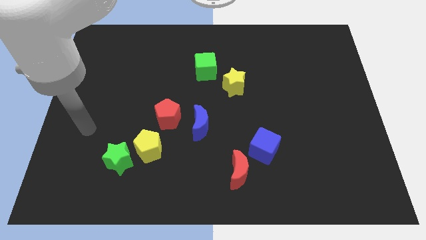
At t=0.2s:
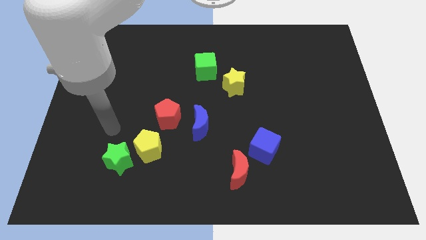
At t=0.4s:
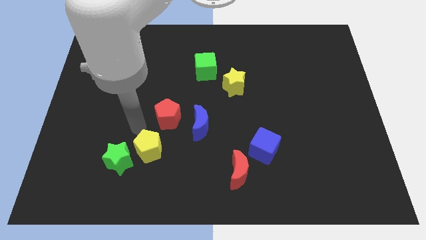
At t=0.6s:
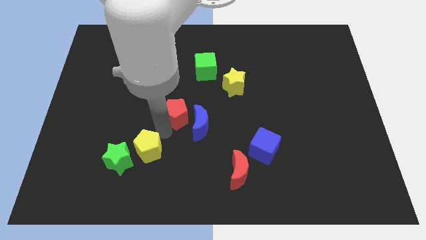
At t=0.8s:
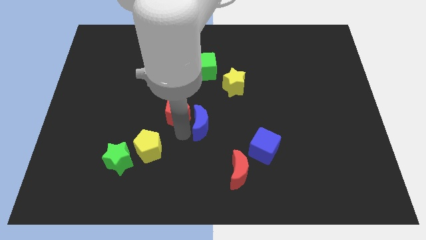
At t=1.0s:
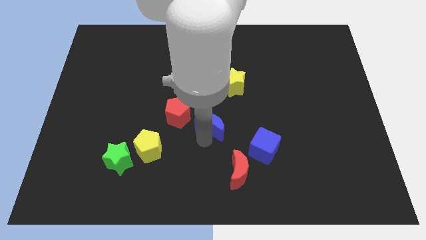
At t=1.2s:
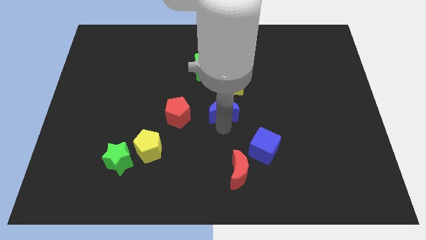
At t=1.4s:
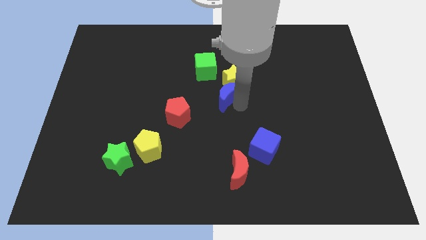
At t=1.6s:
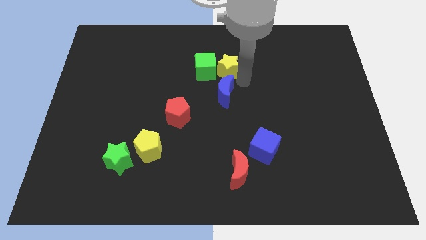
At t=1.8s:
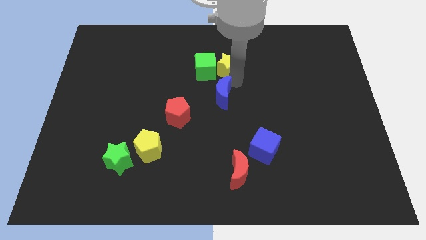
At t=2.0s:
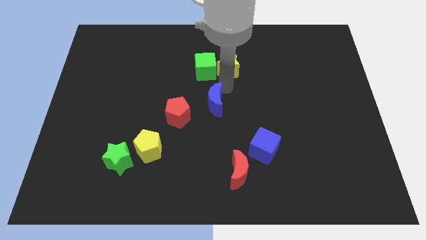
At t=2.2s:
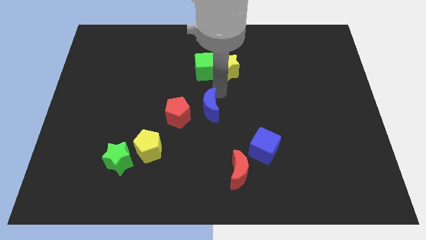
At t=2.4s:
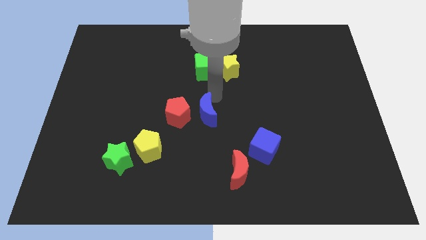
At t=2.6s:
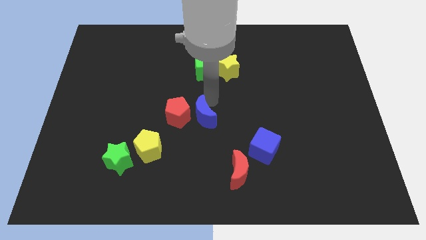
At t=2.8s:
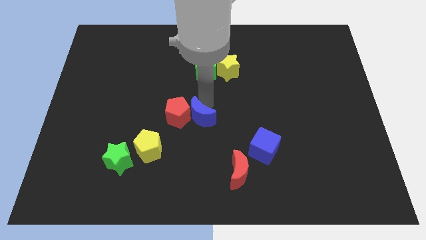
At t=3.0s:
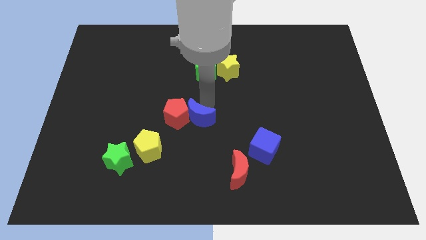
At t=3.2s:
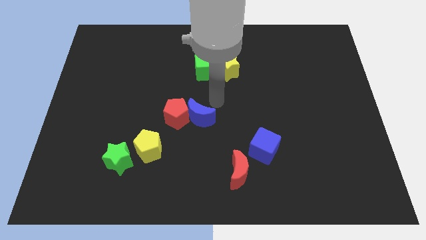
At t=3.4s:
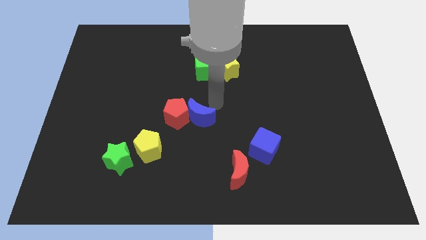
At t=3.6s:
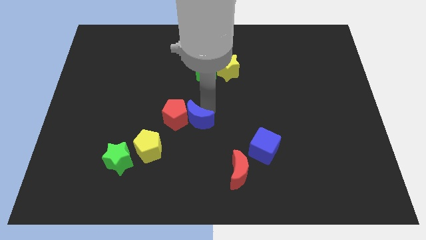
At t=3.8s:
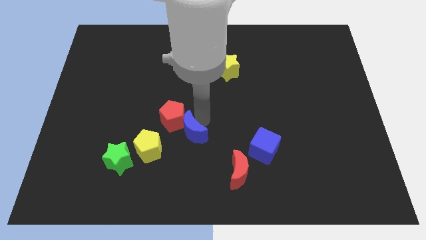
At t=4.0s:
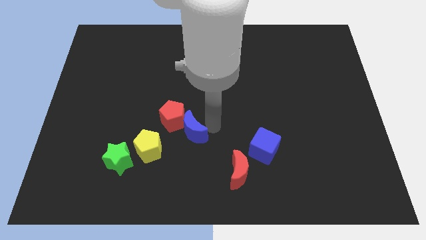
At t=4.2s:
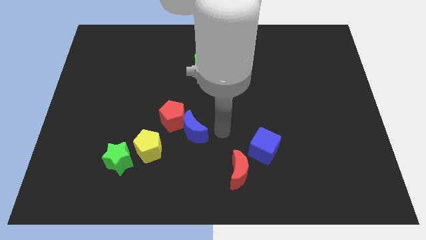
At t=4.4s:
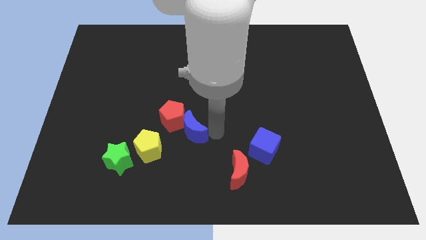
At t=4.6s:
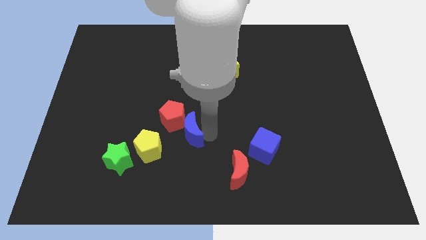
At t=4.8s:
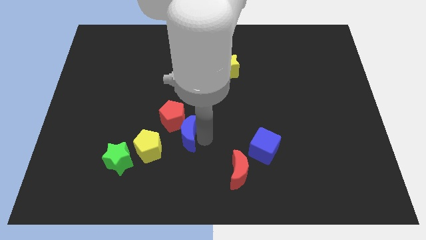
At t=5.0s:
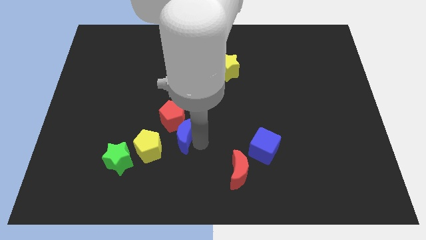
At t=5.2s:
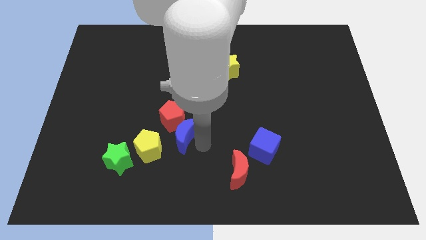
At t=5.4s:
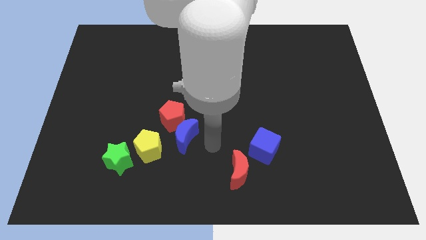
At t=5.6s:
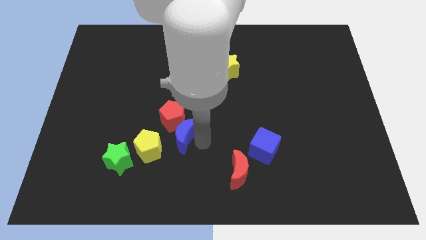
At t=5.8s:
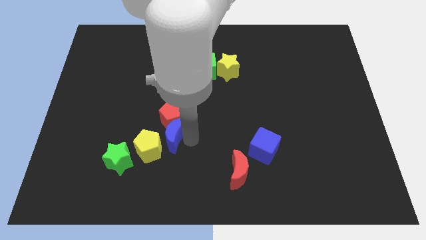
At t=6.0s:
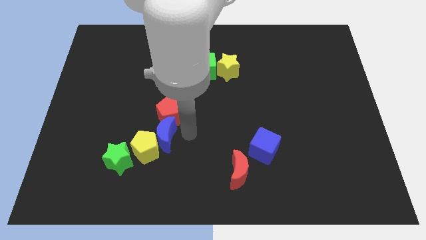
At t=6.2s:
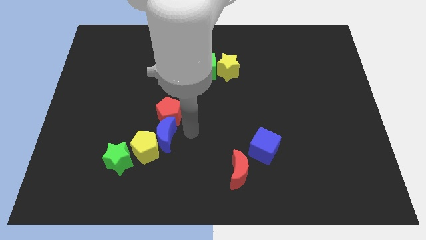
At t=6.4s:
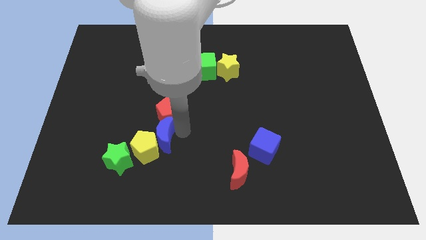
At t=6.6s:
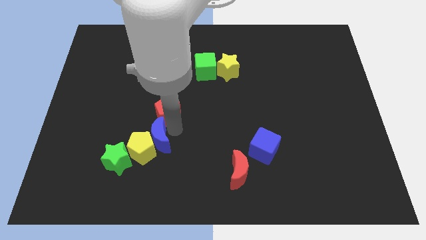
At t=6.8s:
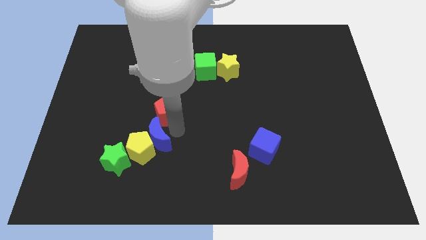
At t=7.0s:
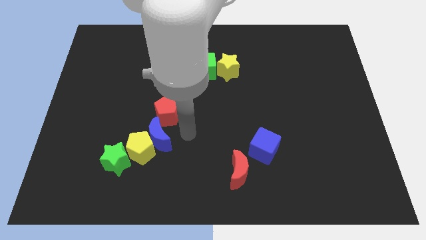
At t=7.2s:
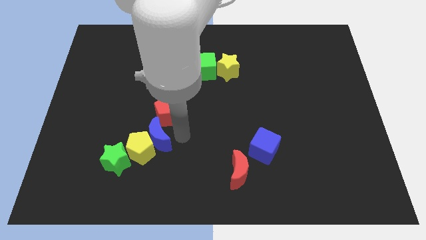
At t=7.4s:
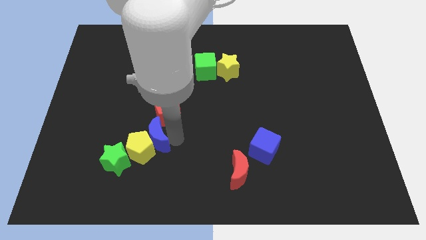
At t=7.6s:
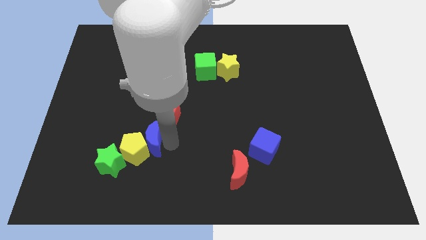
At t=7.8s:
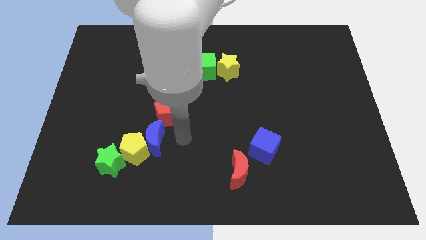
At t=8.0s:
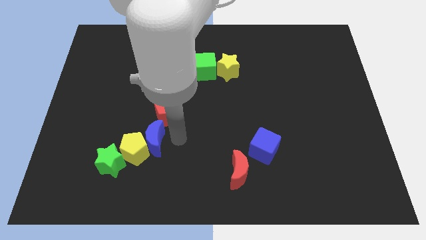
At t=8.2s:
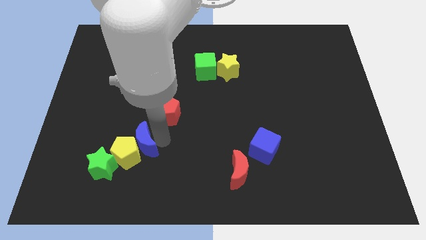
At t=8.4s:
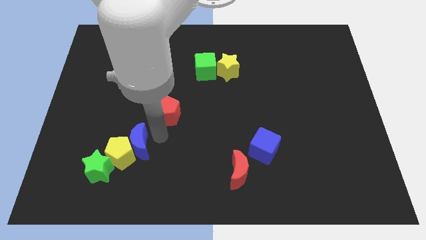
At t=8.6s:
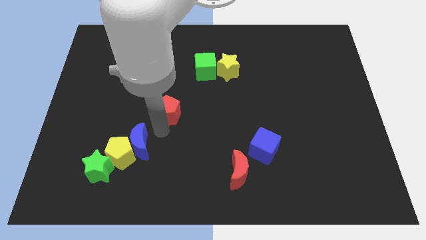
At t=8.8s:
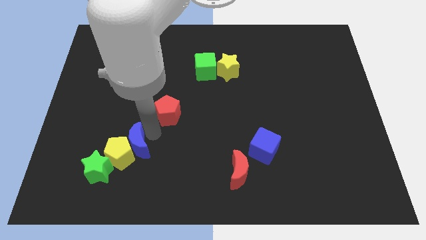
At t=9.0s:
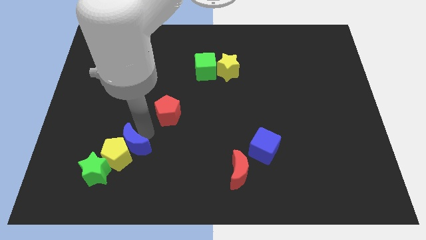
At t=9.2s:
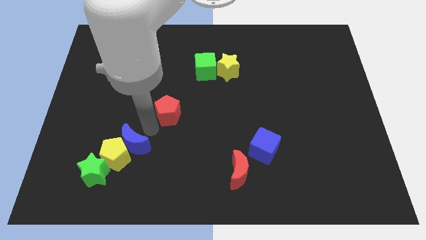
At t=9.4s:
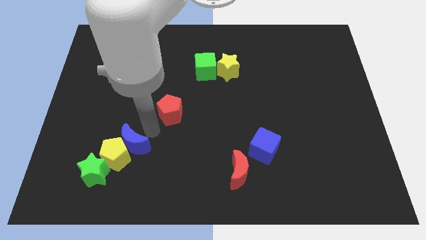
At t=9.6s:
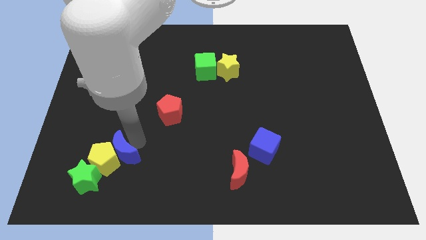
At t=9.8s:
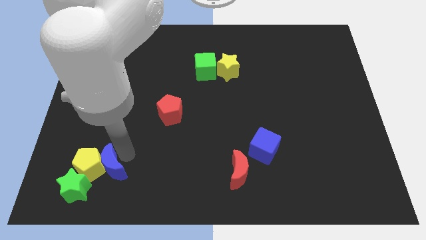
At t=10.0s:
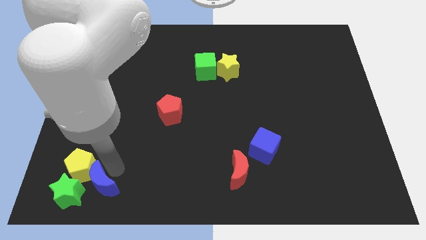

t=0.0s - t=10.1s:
put the blue moon towards the green star

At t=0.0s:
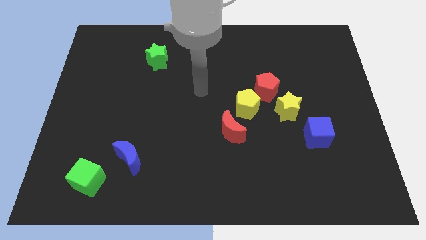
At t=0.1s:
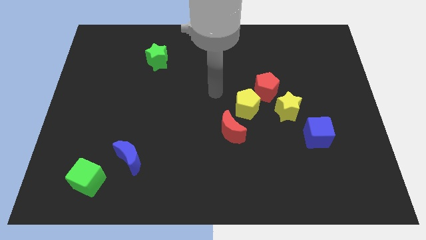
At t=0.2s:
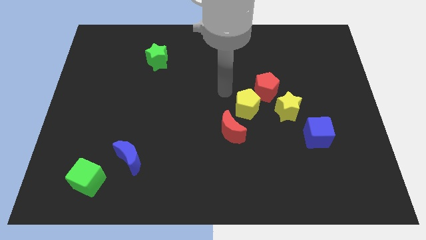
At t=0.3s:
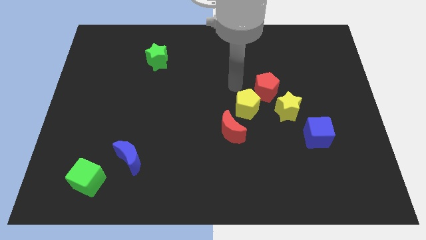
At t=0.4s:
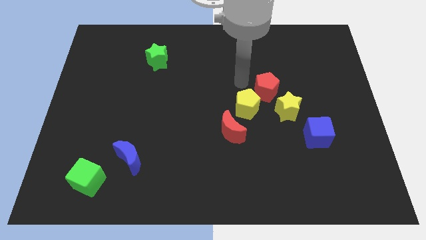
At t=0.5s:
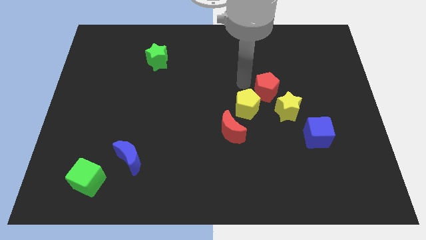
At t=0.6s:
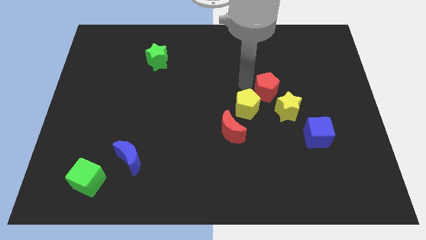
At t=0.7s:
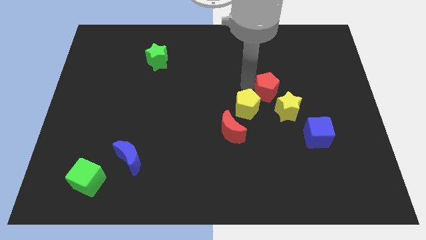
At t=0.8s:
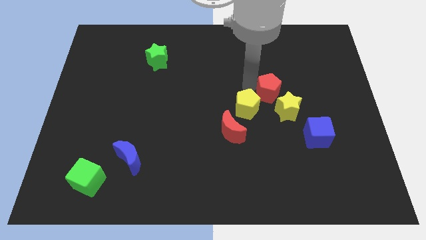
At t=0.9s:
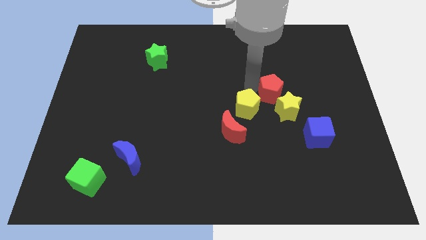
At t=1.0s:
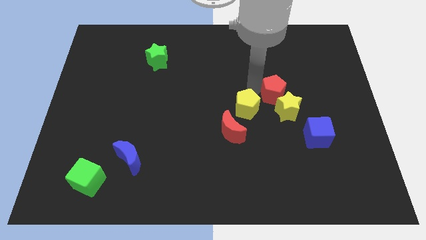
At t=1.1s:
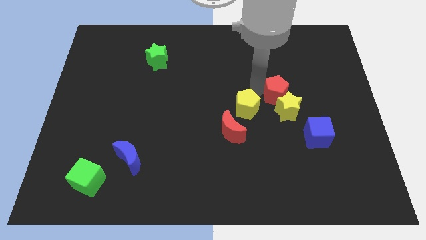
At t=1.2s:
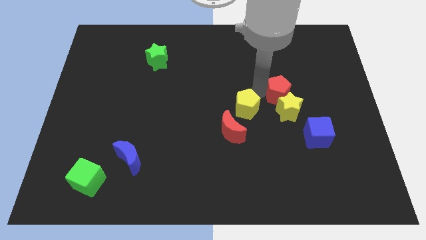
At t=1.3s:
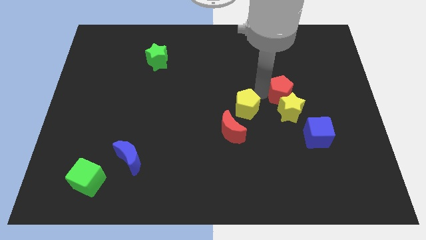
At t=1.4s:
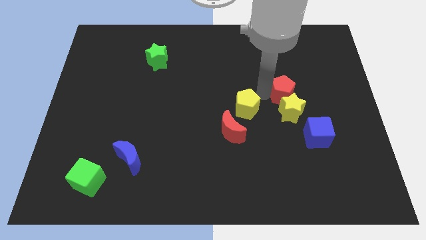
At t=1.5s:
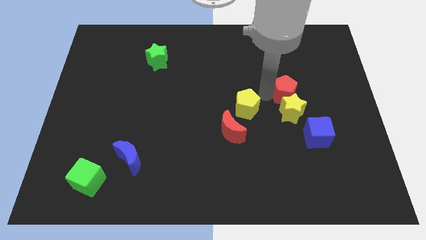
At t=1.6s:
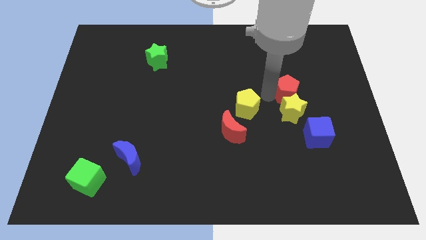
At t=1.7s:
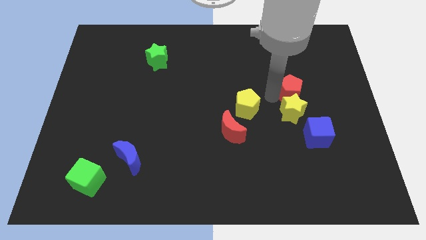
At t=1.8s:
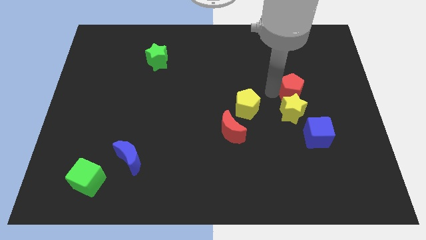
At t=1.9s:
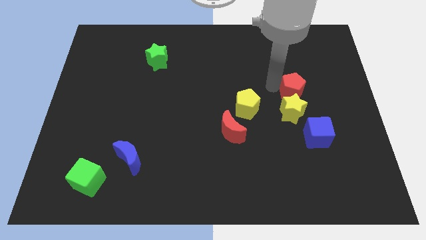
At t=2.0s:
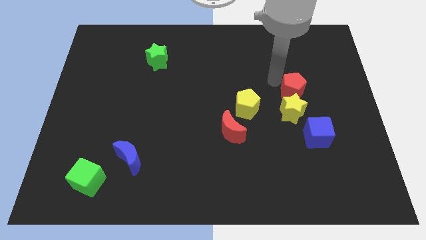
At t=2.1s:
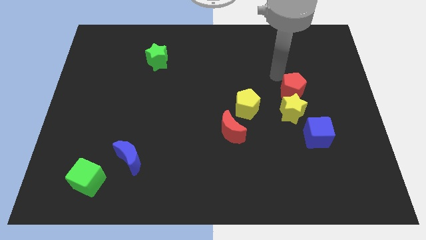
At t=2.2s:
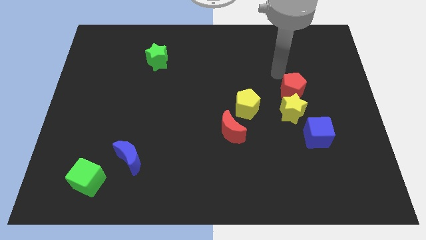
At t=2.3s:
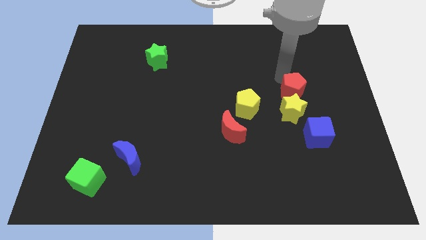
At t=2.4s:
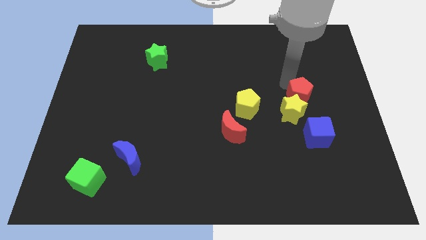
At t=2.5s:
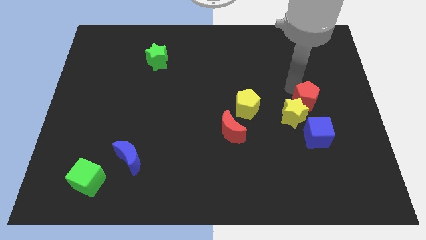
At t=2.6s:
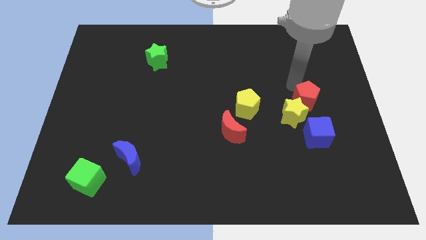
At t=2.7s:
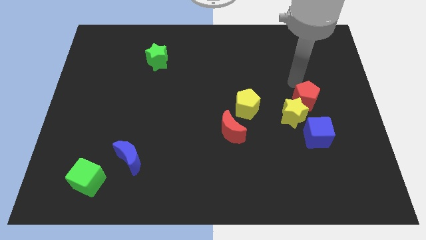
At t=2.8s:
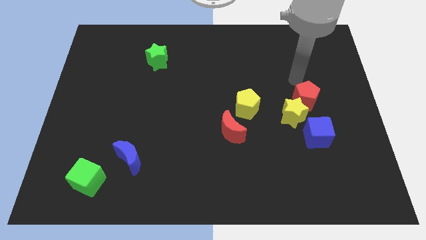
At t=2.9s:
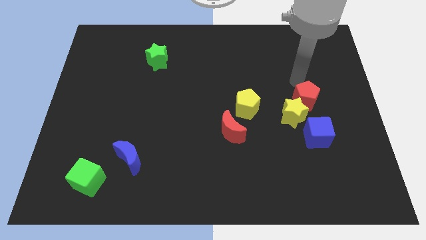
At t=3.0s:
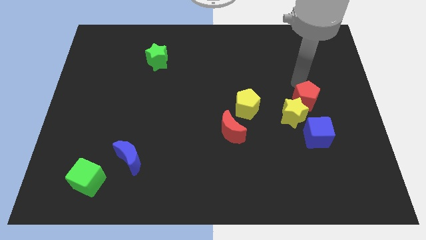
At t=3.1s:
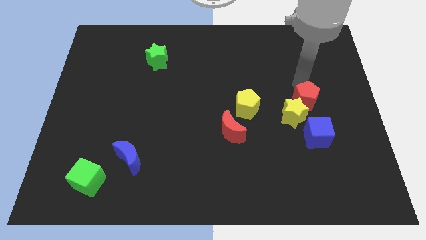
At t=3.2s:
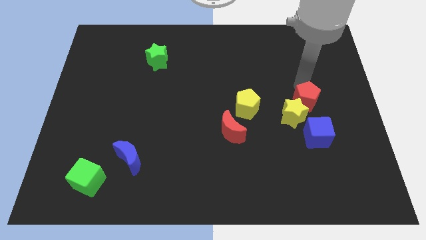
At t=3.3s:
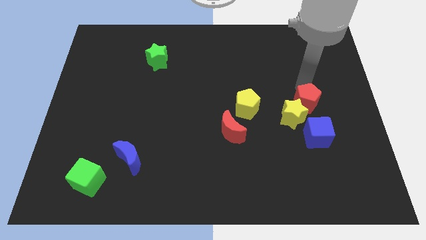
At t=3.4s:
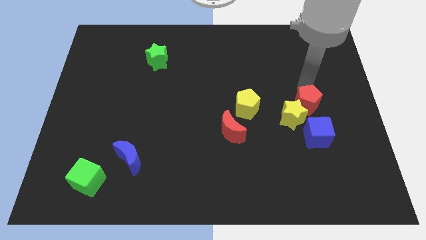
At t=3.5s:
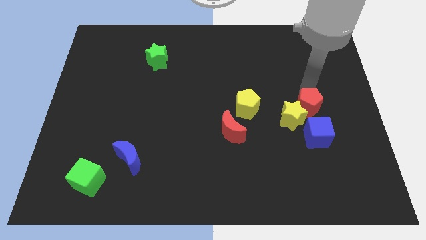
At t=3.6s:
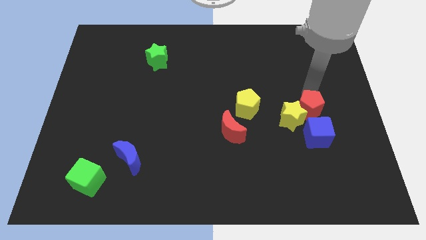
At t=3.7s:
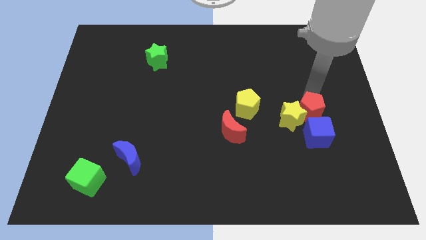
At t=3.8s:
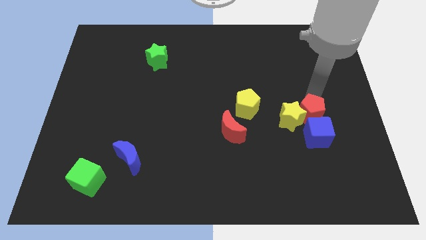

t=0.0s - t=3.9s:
put the red pentagon close to the blue cube
